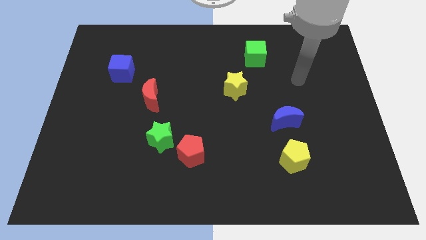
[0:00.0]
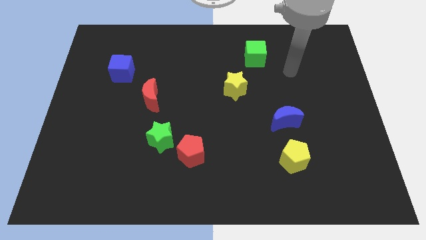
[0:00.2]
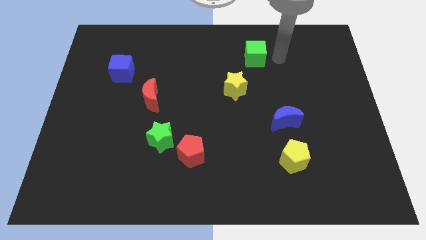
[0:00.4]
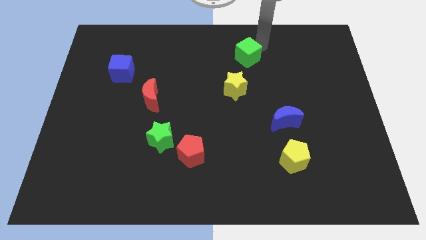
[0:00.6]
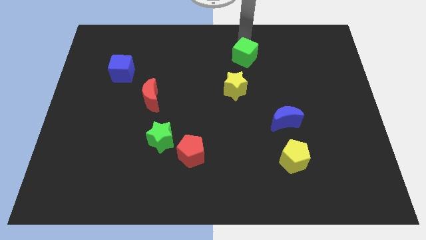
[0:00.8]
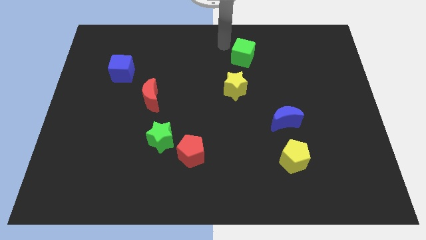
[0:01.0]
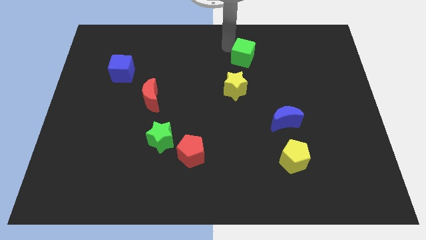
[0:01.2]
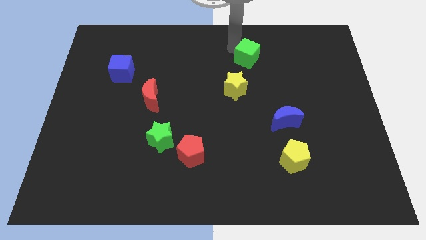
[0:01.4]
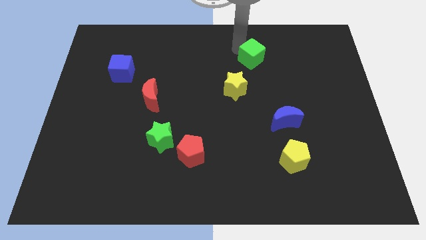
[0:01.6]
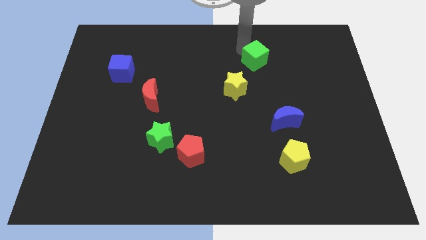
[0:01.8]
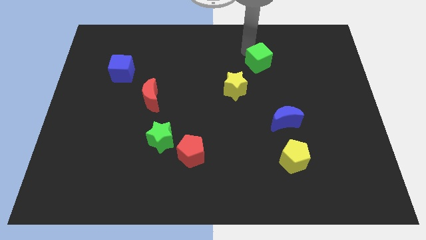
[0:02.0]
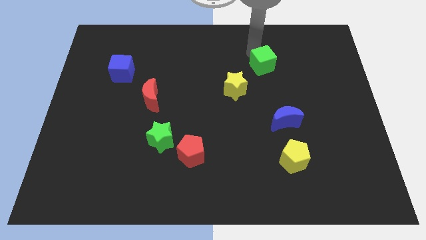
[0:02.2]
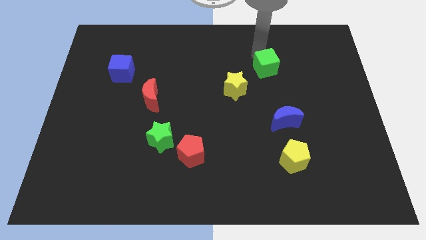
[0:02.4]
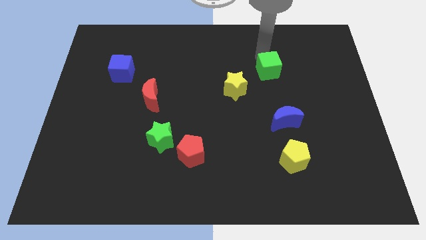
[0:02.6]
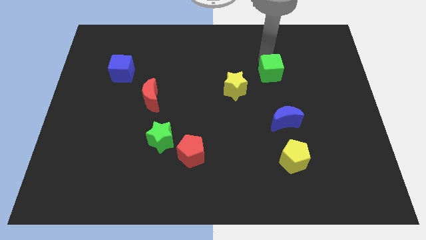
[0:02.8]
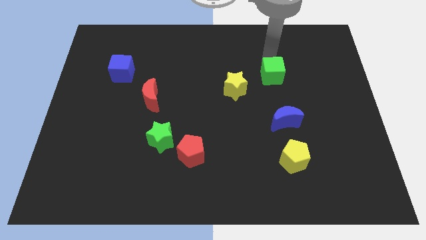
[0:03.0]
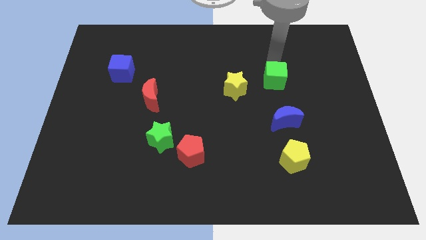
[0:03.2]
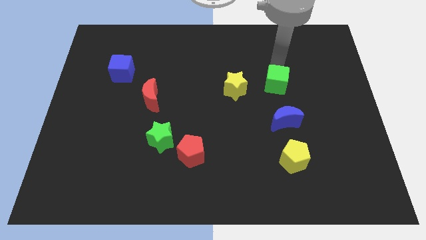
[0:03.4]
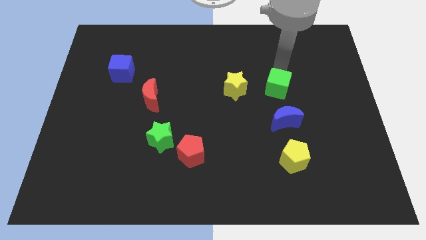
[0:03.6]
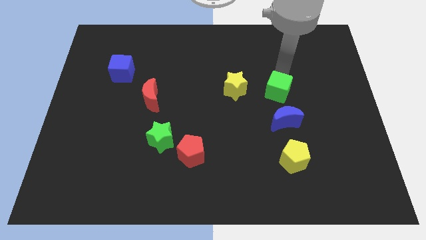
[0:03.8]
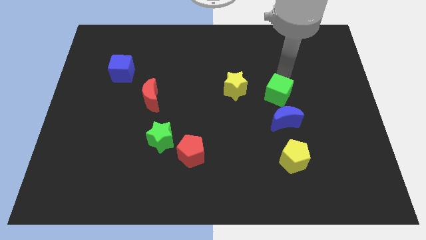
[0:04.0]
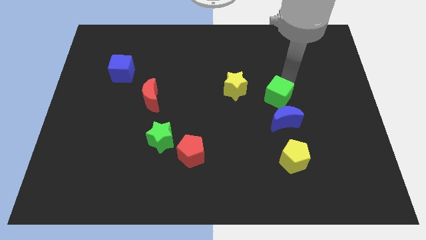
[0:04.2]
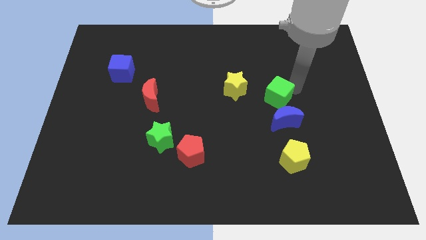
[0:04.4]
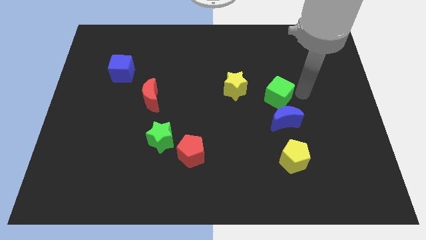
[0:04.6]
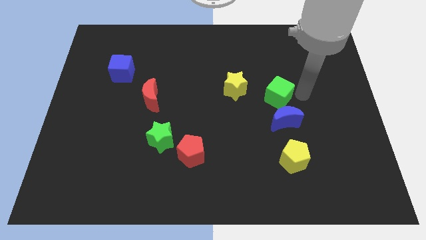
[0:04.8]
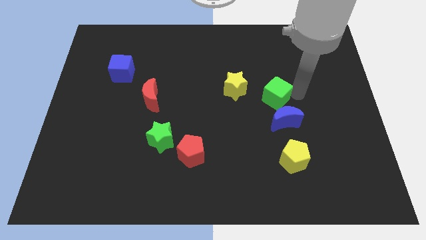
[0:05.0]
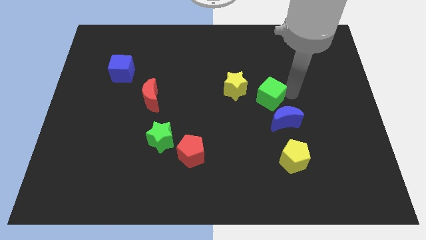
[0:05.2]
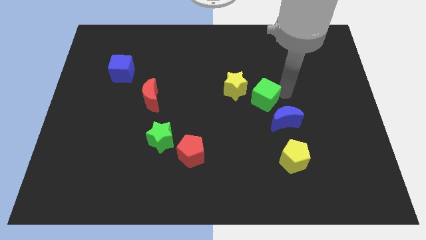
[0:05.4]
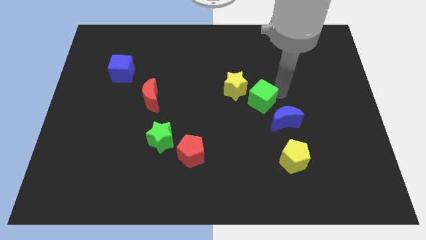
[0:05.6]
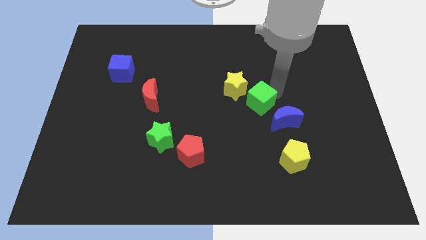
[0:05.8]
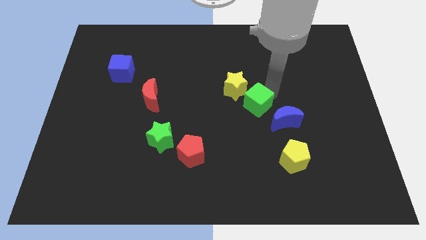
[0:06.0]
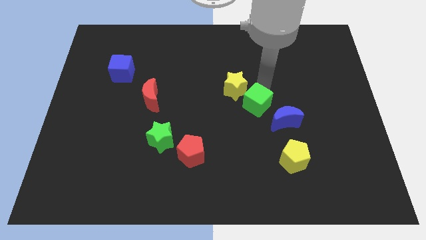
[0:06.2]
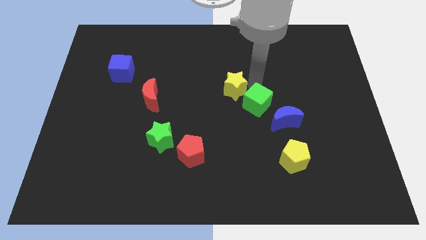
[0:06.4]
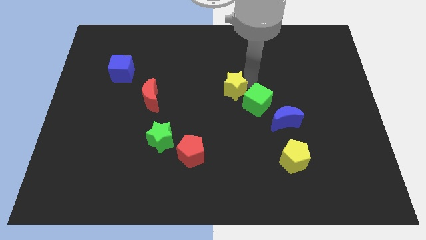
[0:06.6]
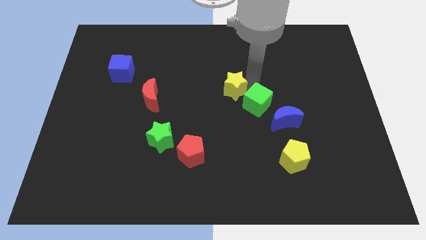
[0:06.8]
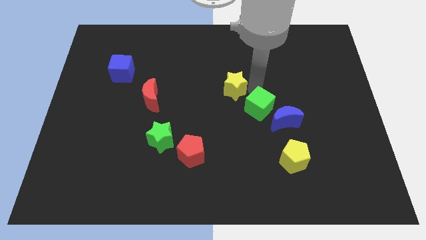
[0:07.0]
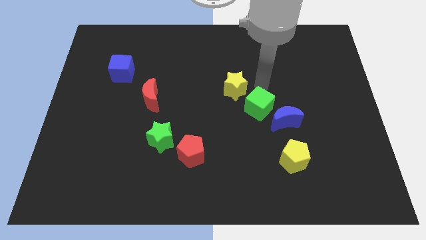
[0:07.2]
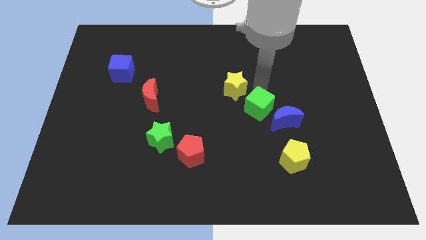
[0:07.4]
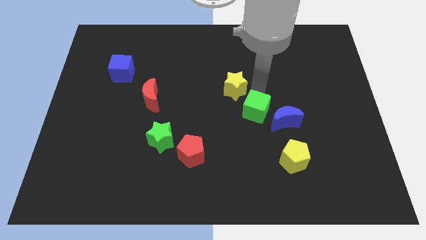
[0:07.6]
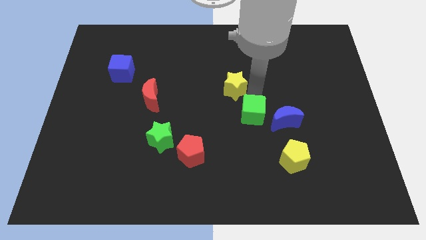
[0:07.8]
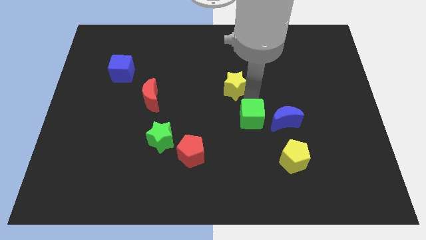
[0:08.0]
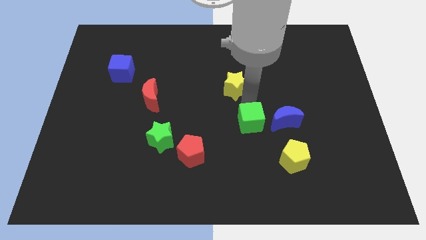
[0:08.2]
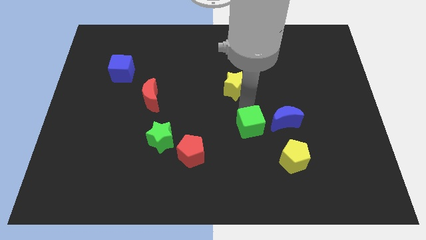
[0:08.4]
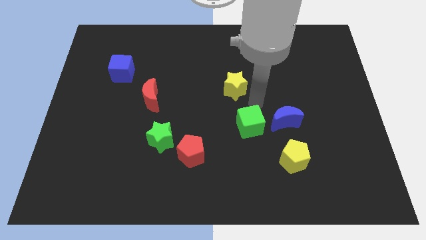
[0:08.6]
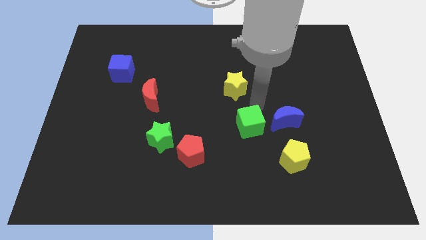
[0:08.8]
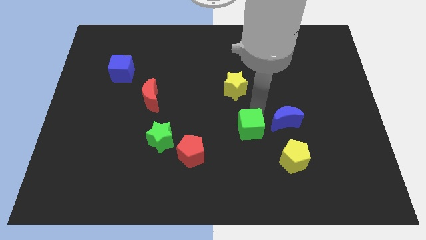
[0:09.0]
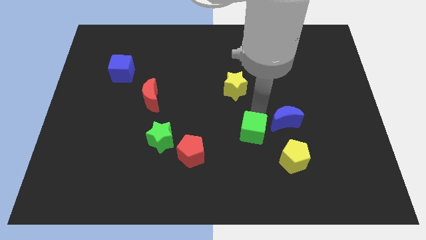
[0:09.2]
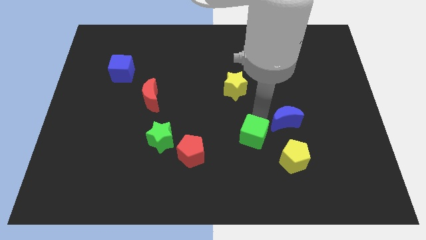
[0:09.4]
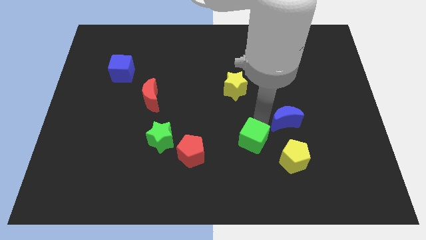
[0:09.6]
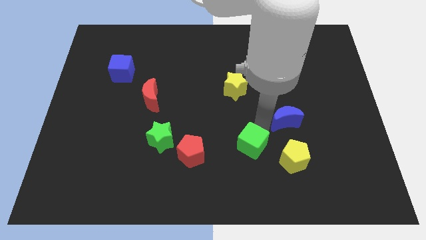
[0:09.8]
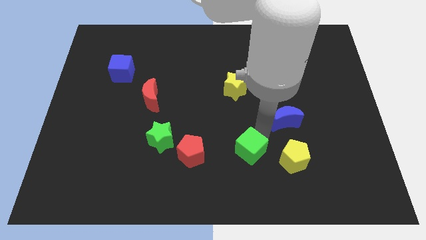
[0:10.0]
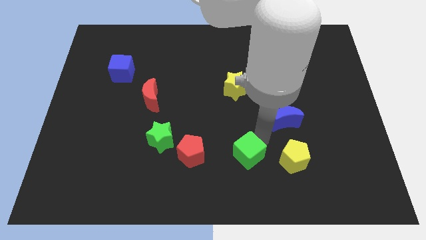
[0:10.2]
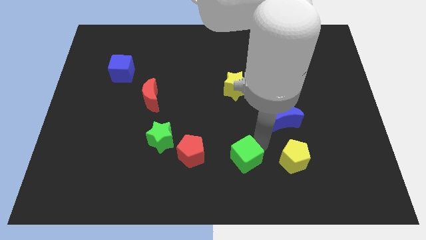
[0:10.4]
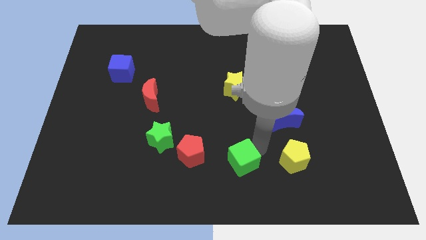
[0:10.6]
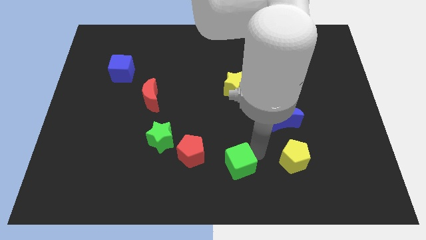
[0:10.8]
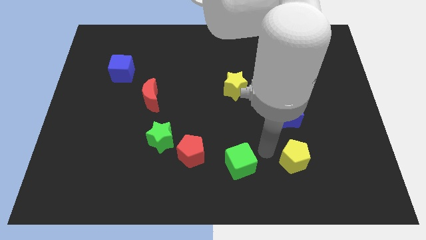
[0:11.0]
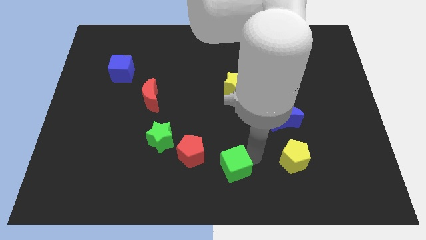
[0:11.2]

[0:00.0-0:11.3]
move the green cube to the bottom right of the red pentagon
